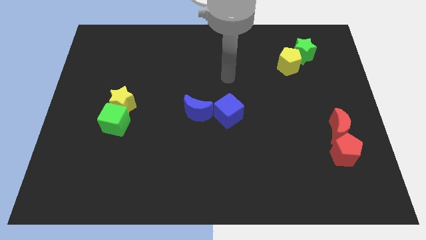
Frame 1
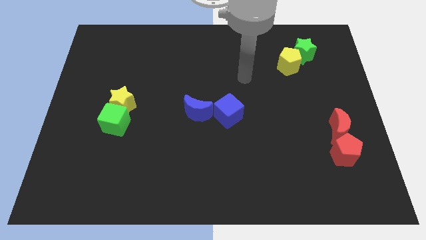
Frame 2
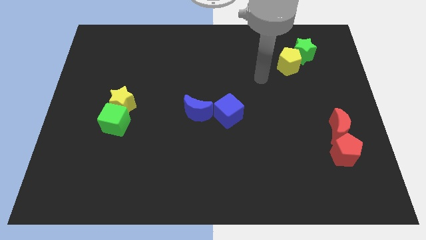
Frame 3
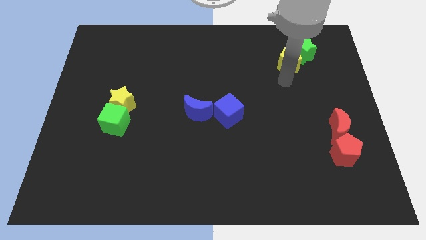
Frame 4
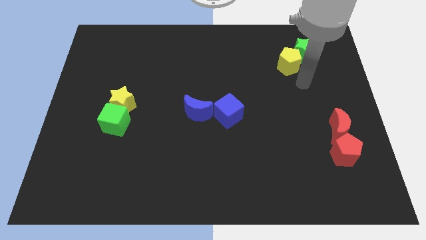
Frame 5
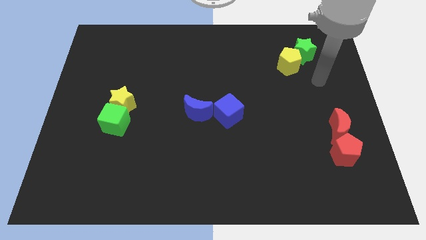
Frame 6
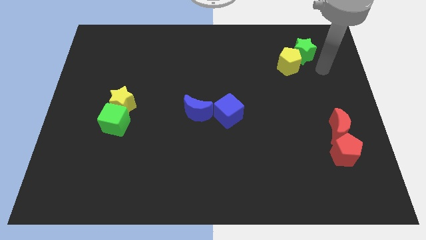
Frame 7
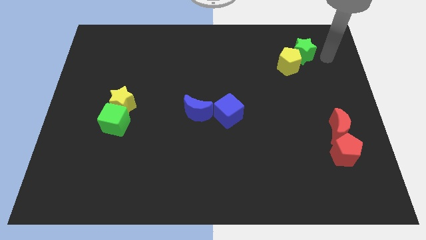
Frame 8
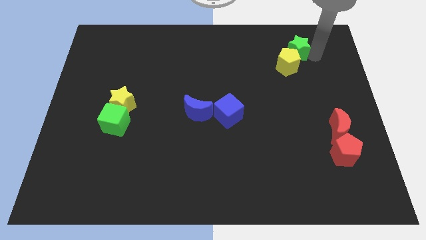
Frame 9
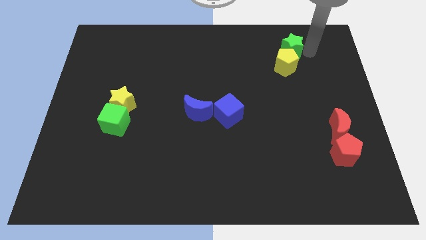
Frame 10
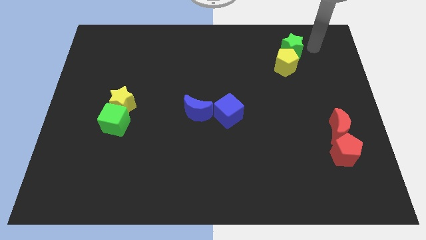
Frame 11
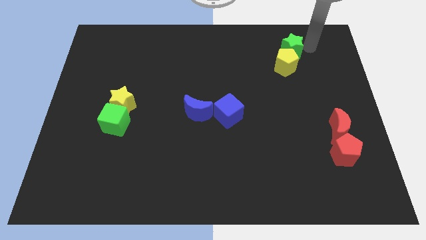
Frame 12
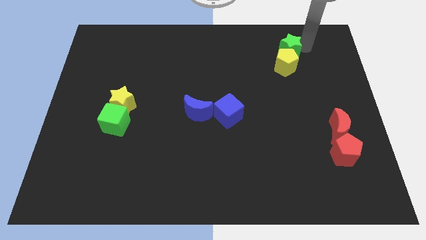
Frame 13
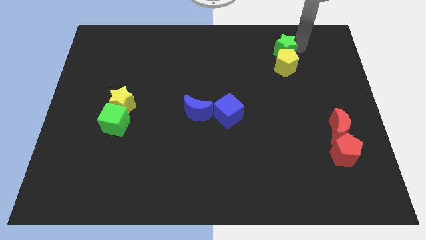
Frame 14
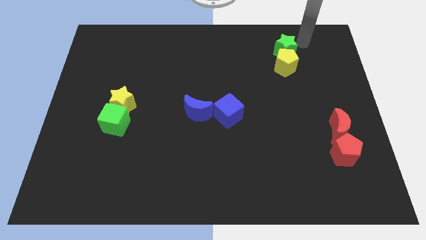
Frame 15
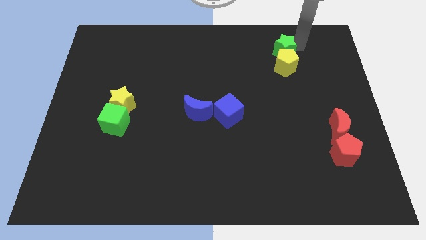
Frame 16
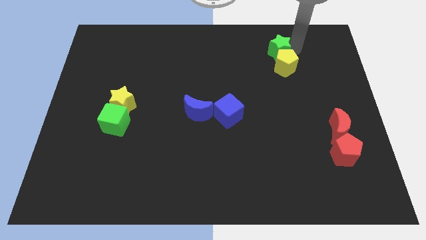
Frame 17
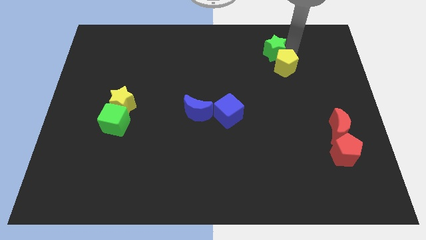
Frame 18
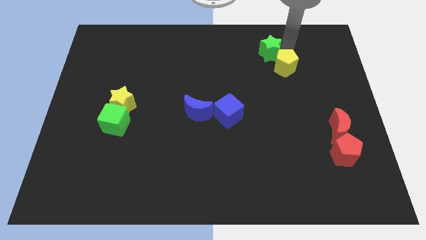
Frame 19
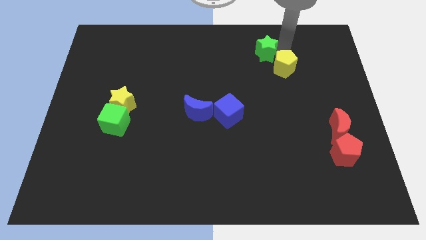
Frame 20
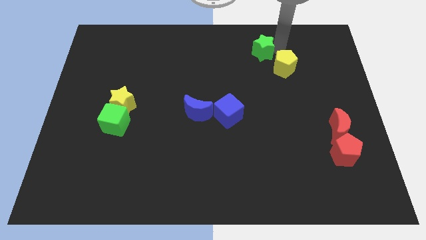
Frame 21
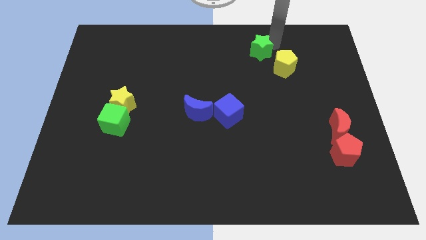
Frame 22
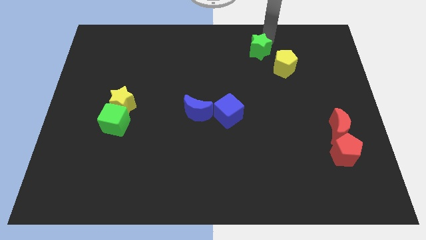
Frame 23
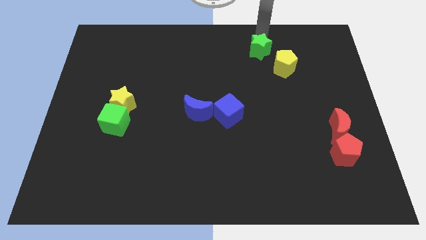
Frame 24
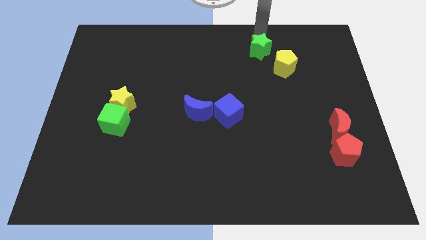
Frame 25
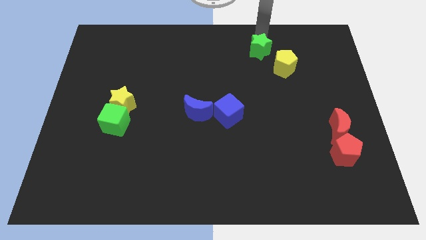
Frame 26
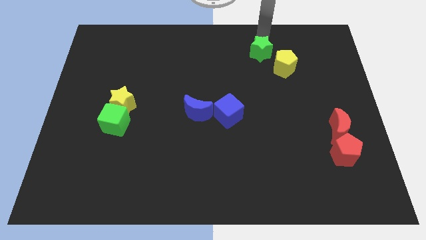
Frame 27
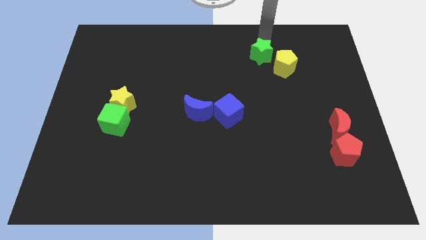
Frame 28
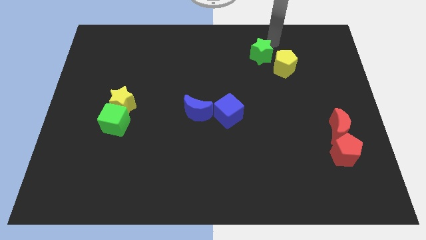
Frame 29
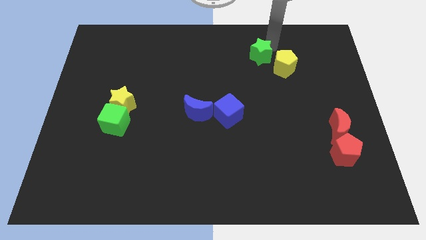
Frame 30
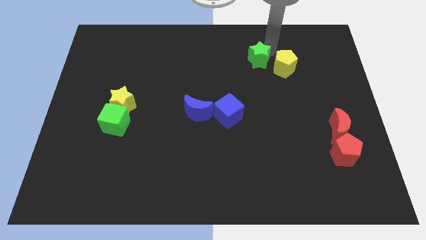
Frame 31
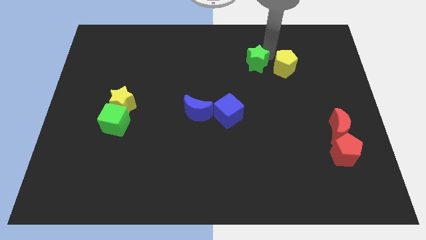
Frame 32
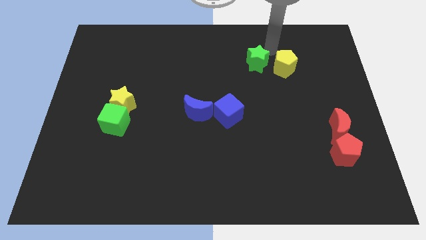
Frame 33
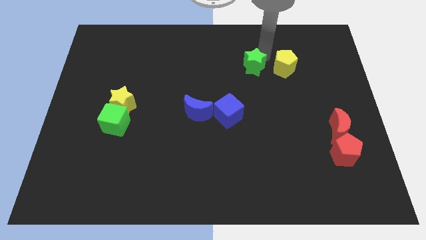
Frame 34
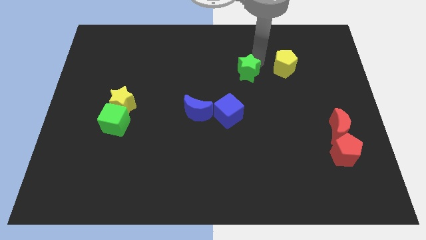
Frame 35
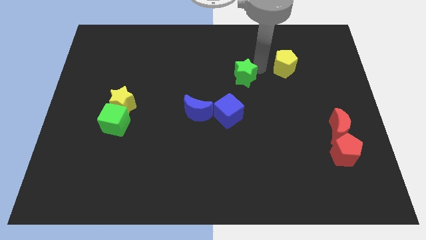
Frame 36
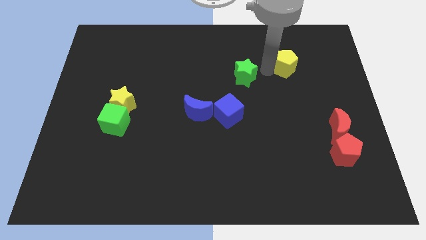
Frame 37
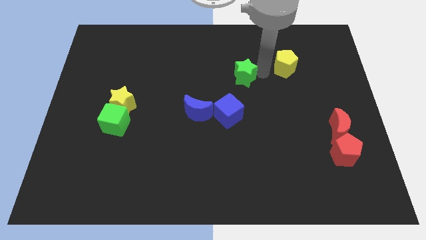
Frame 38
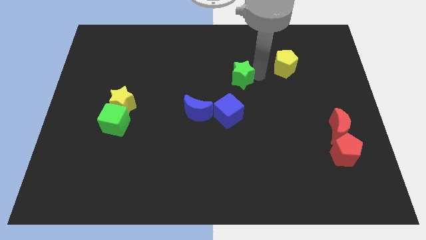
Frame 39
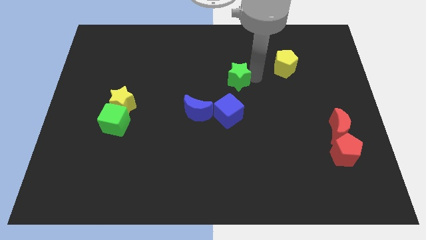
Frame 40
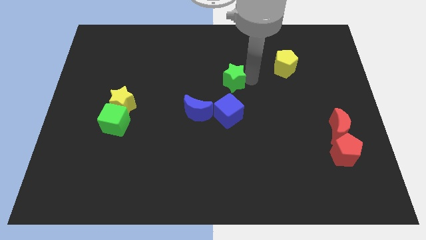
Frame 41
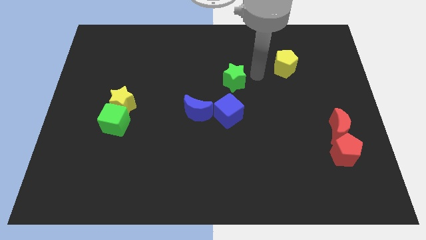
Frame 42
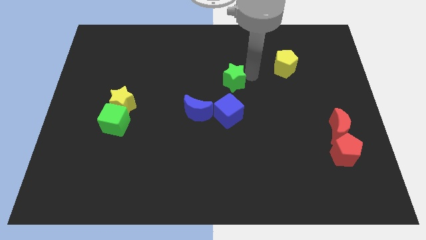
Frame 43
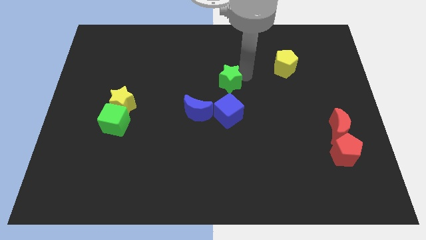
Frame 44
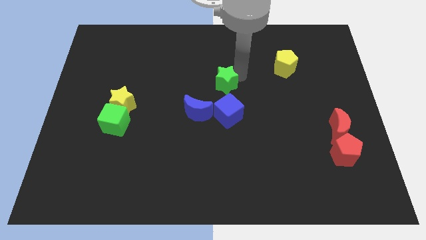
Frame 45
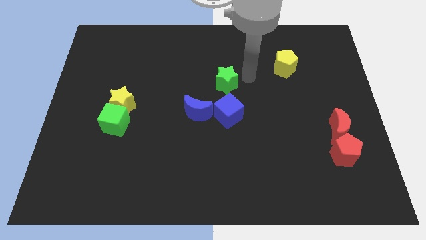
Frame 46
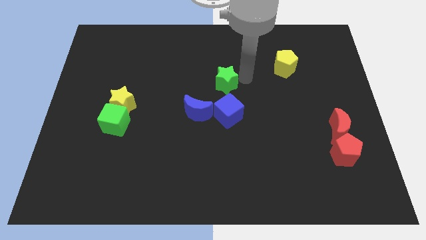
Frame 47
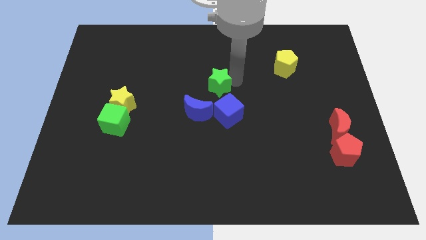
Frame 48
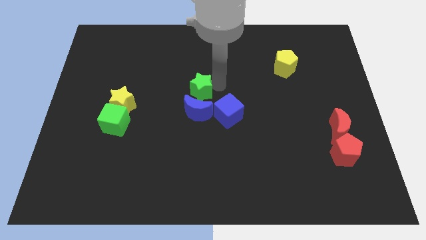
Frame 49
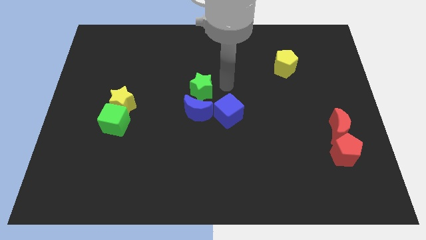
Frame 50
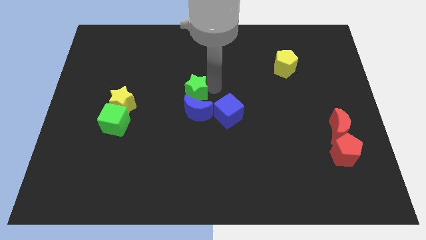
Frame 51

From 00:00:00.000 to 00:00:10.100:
move the green star diagonally up and to the left of the blue moon

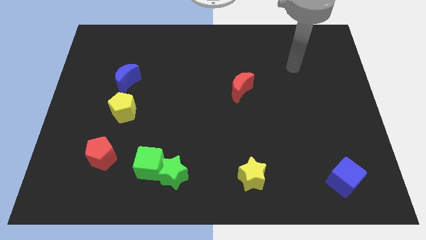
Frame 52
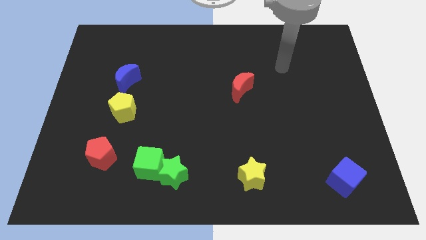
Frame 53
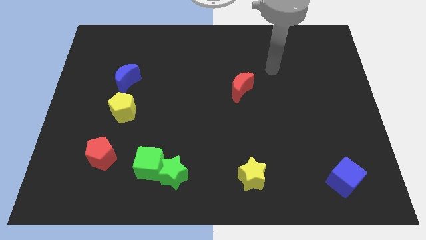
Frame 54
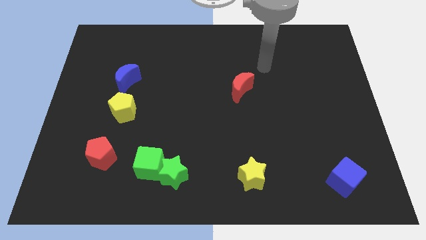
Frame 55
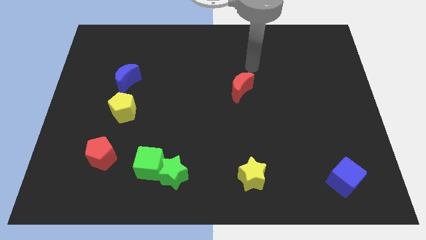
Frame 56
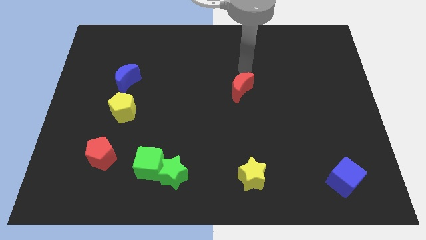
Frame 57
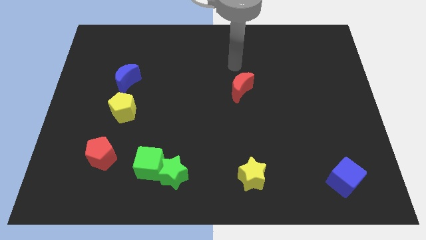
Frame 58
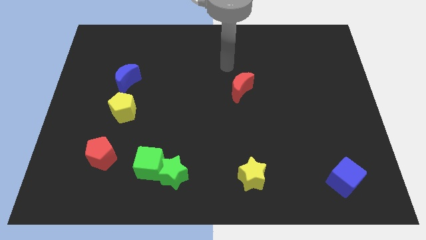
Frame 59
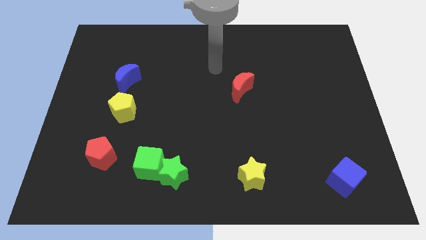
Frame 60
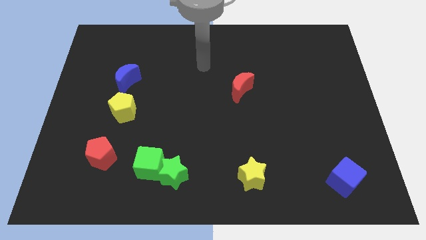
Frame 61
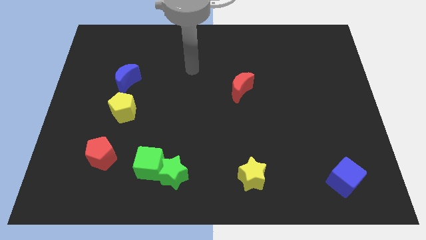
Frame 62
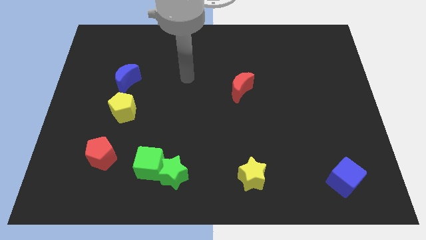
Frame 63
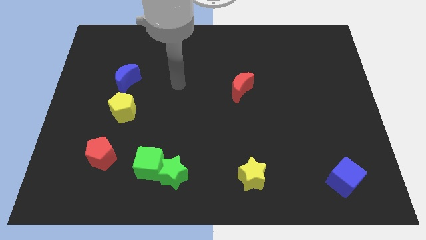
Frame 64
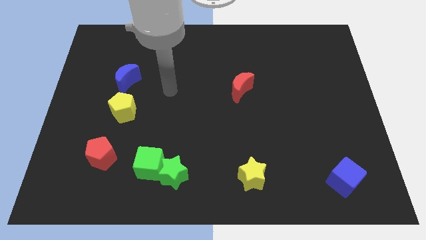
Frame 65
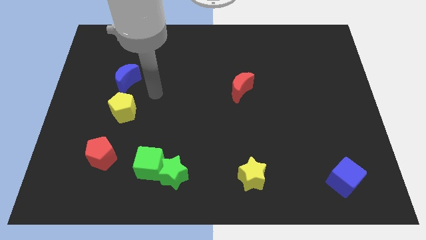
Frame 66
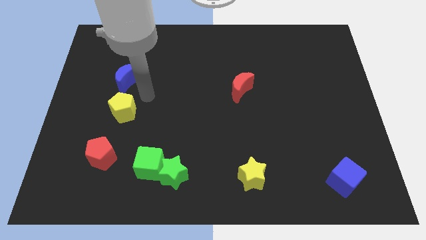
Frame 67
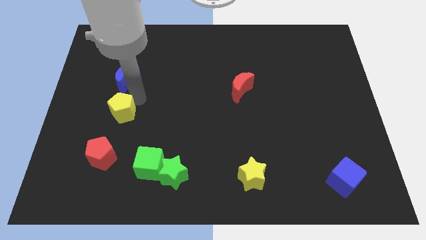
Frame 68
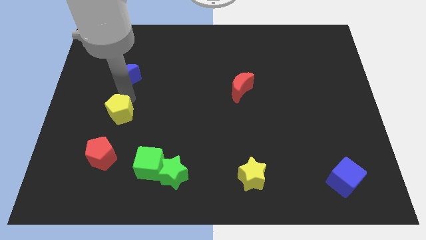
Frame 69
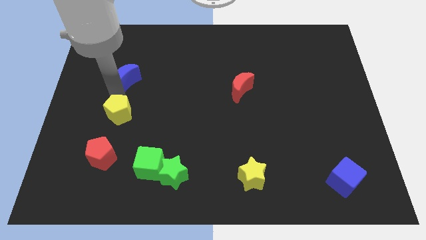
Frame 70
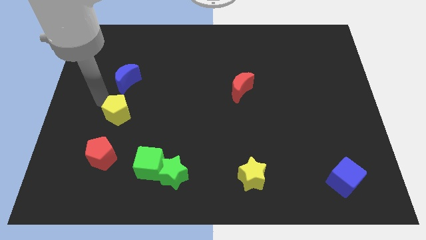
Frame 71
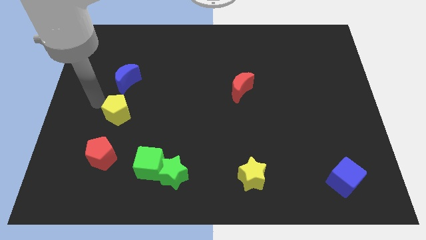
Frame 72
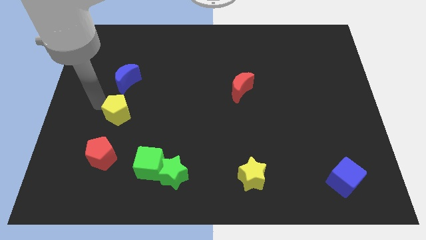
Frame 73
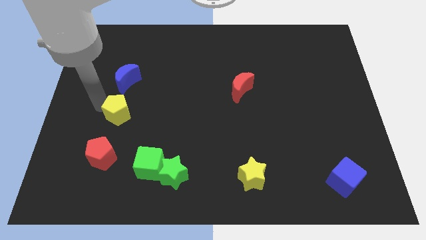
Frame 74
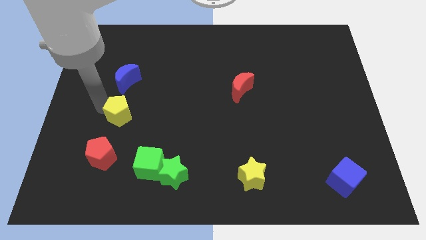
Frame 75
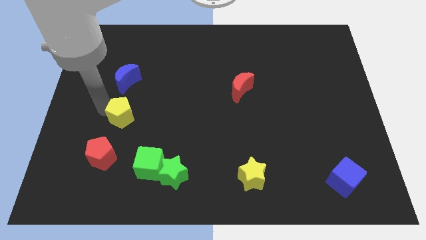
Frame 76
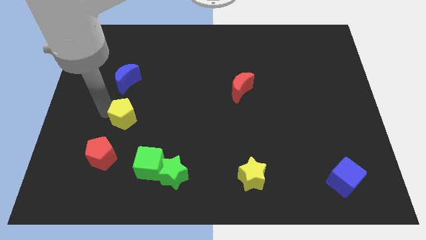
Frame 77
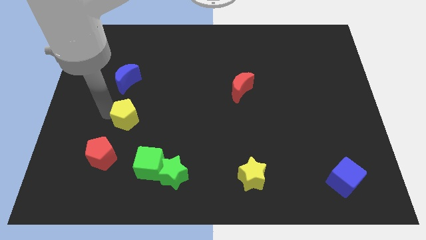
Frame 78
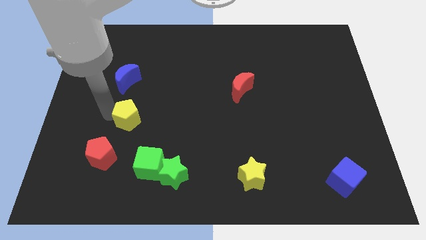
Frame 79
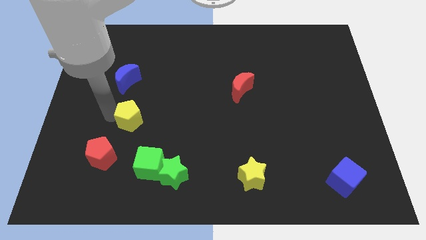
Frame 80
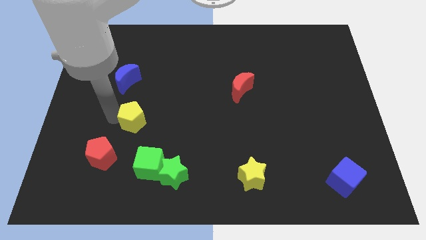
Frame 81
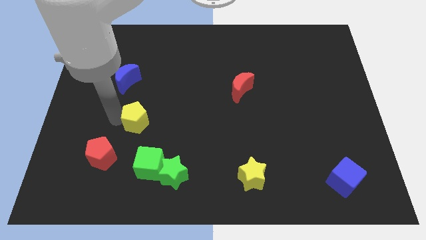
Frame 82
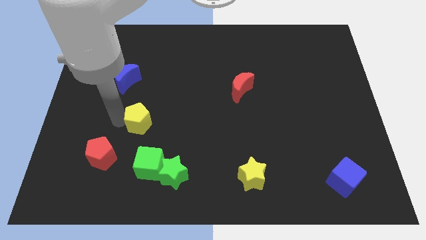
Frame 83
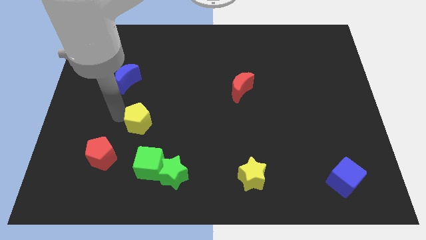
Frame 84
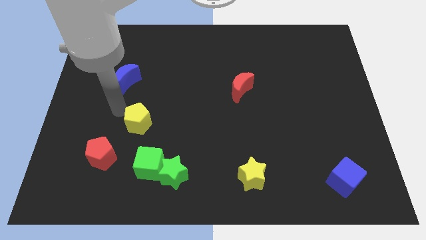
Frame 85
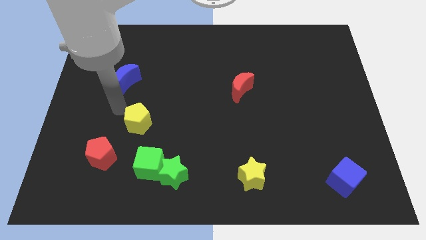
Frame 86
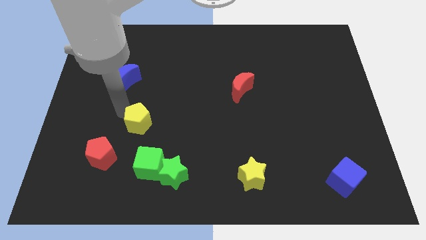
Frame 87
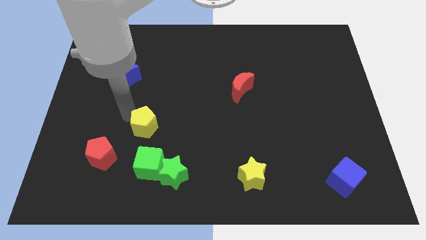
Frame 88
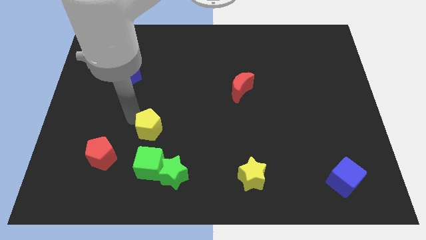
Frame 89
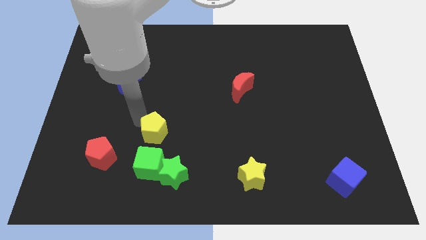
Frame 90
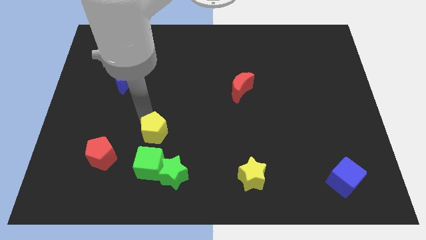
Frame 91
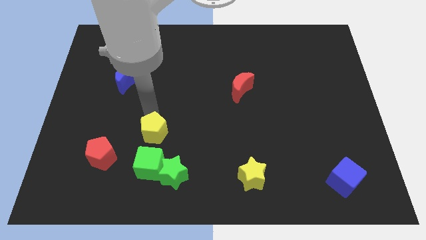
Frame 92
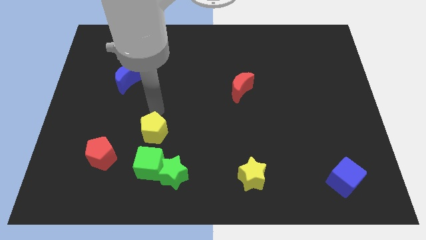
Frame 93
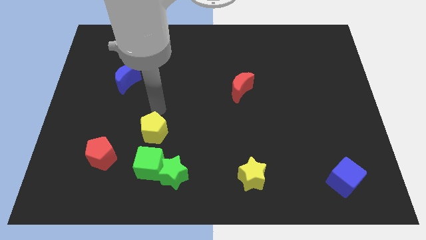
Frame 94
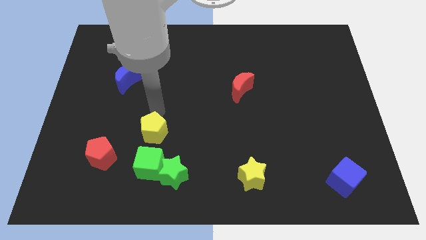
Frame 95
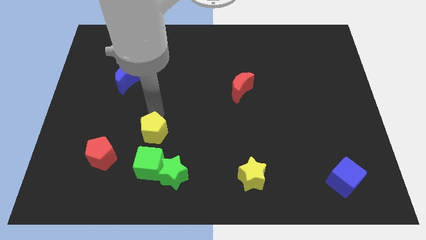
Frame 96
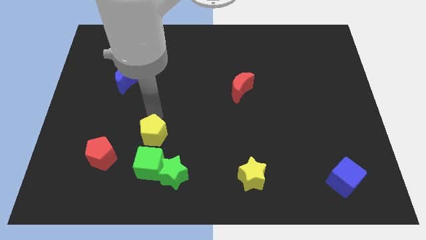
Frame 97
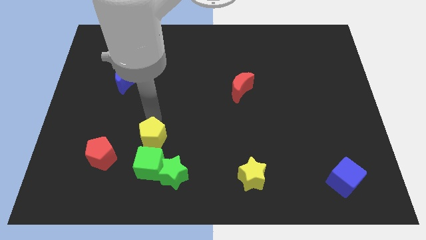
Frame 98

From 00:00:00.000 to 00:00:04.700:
put the yellow pentagon just right of the red pentagon
